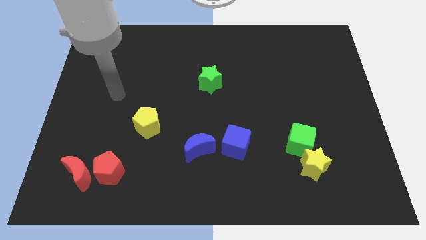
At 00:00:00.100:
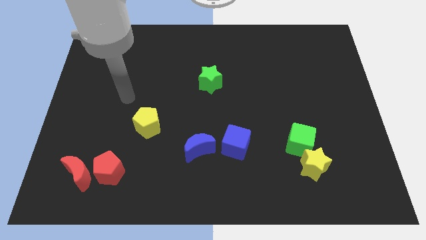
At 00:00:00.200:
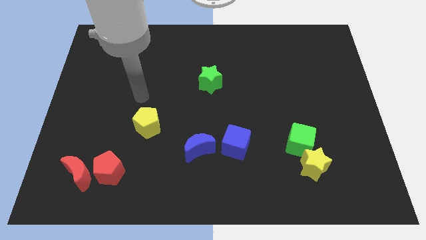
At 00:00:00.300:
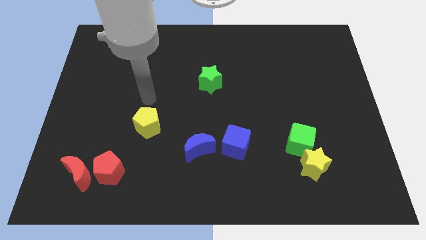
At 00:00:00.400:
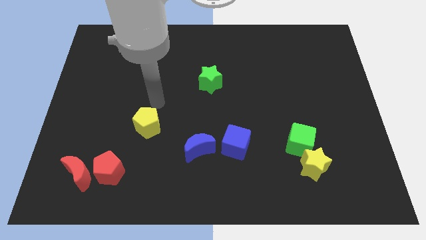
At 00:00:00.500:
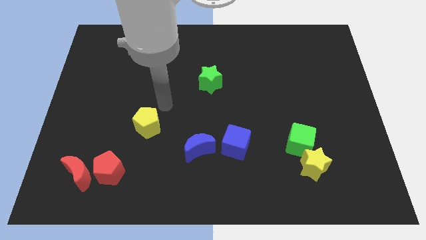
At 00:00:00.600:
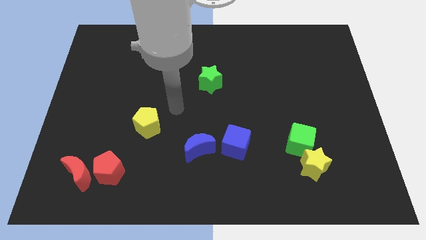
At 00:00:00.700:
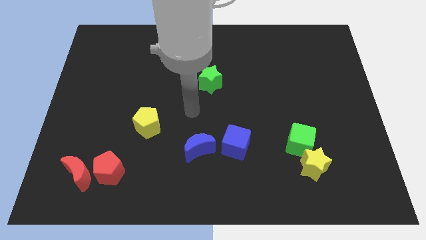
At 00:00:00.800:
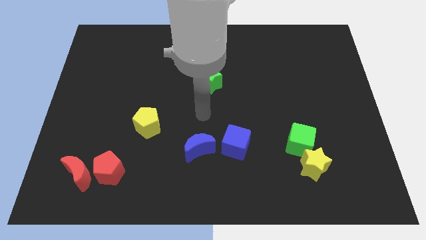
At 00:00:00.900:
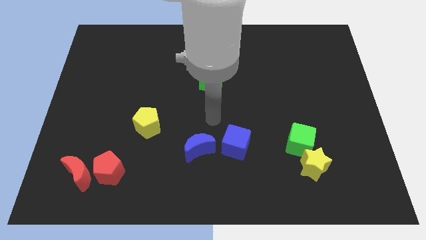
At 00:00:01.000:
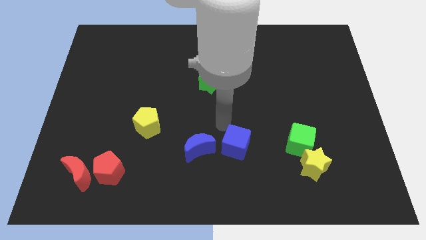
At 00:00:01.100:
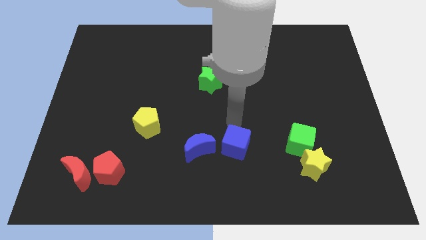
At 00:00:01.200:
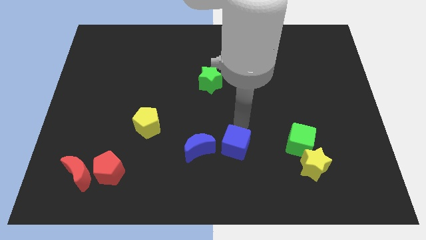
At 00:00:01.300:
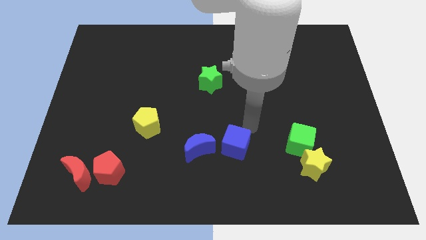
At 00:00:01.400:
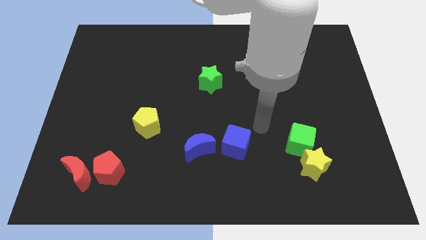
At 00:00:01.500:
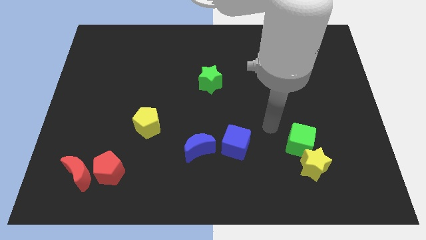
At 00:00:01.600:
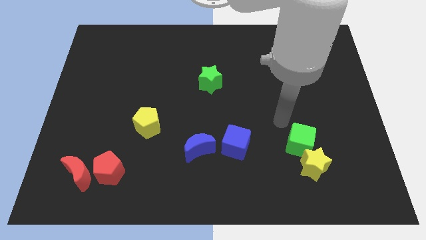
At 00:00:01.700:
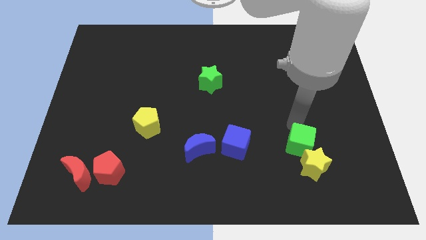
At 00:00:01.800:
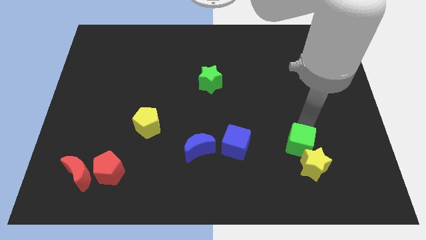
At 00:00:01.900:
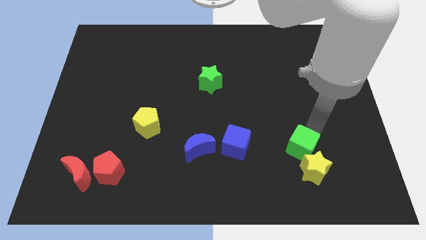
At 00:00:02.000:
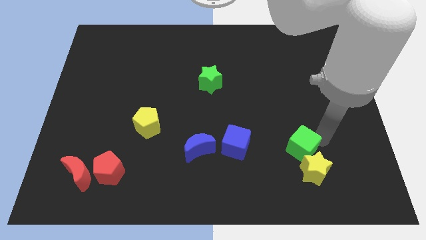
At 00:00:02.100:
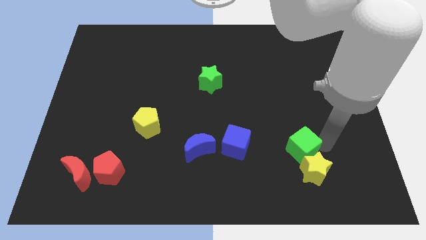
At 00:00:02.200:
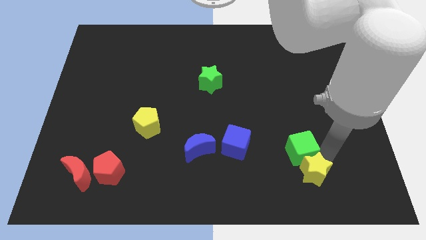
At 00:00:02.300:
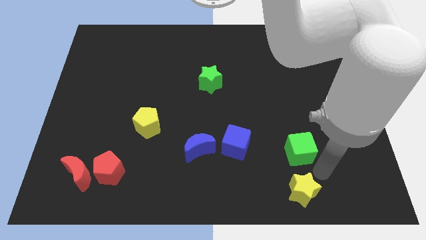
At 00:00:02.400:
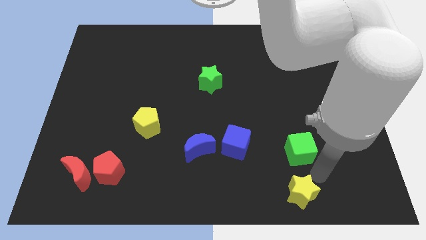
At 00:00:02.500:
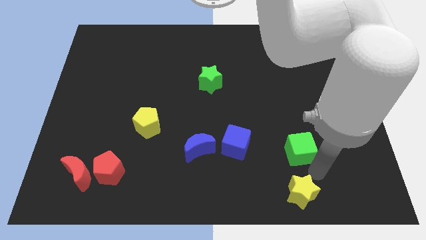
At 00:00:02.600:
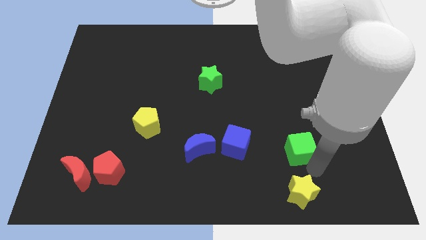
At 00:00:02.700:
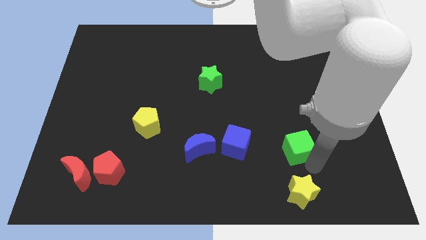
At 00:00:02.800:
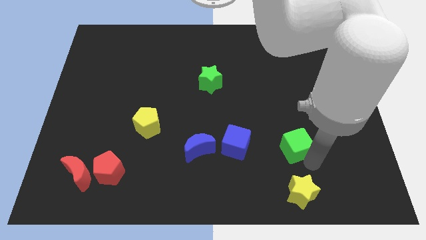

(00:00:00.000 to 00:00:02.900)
pull the green cube apart from the yellow star

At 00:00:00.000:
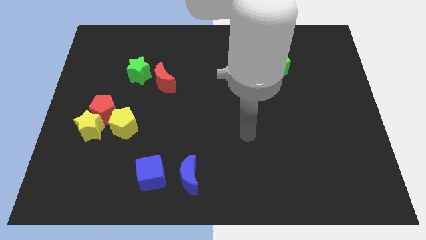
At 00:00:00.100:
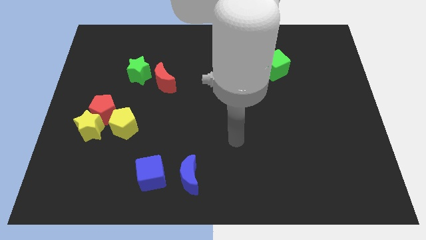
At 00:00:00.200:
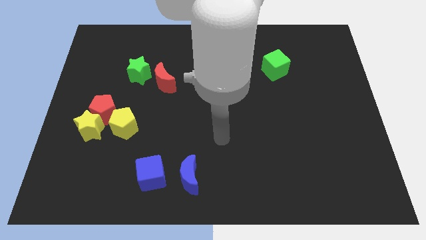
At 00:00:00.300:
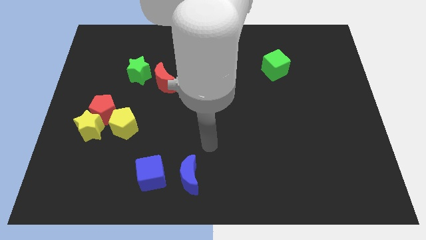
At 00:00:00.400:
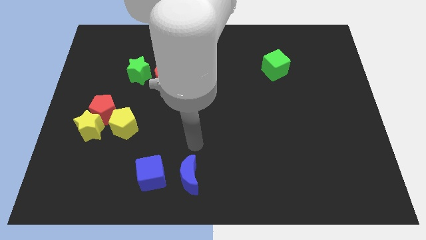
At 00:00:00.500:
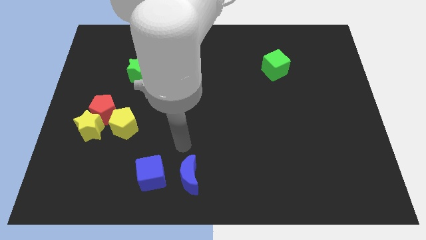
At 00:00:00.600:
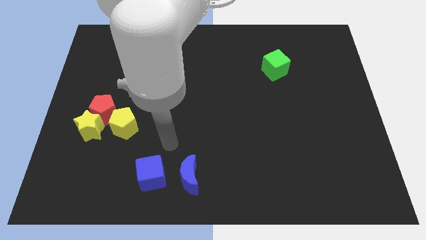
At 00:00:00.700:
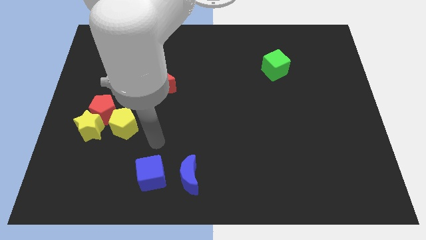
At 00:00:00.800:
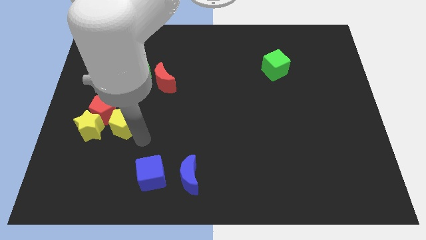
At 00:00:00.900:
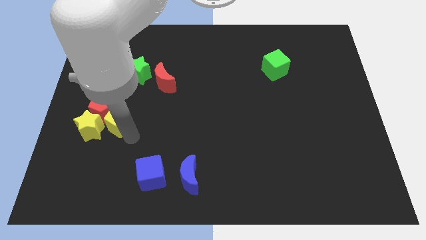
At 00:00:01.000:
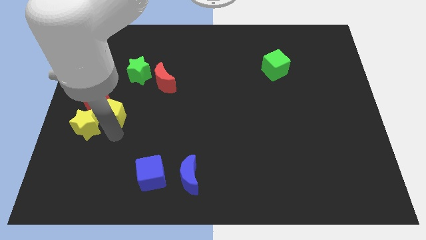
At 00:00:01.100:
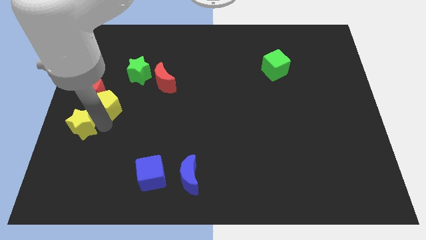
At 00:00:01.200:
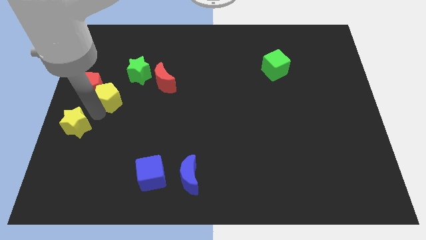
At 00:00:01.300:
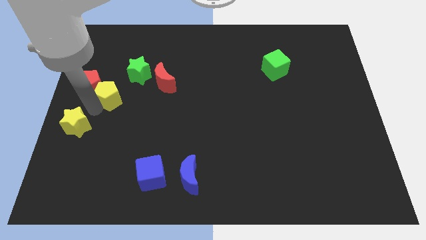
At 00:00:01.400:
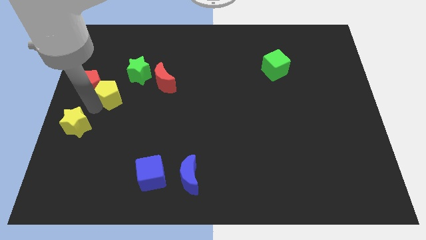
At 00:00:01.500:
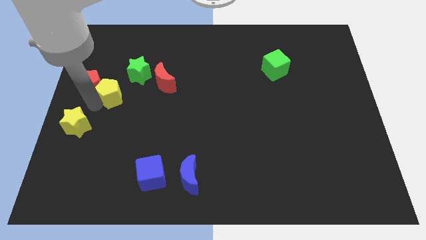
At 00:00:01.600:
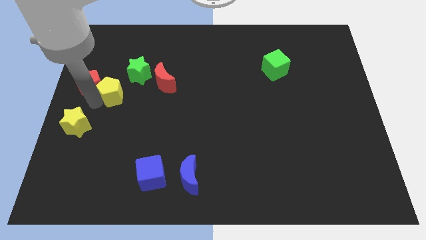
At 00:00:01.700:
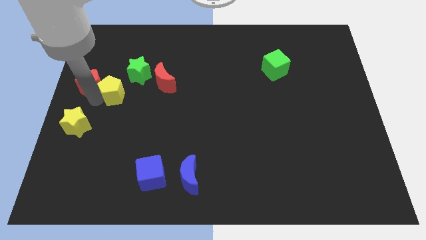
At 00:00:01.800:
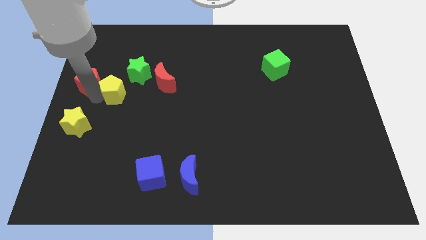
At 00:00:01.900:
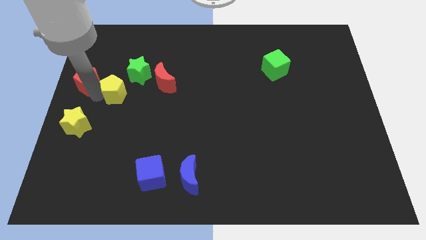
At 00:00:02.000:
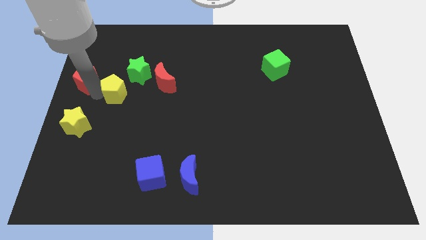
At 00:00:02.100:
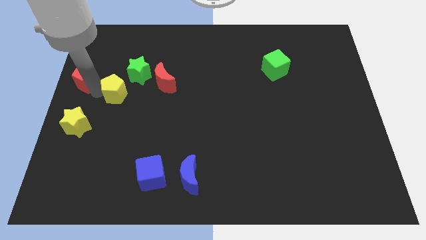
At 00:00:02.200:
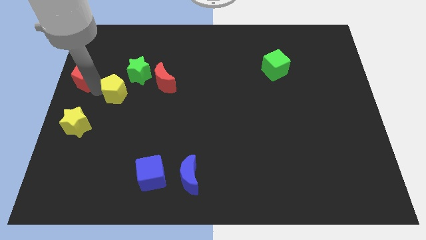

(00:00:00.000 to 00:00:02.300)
separate the red pentagon from the yellow star and yellow pentagon

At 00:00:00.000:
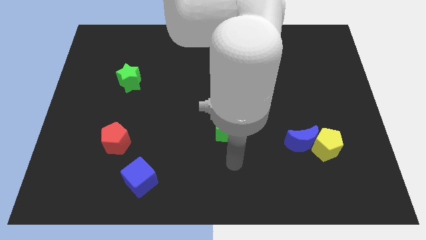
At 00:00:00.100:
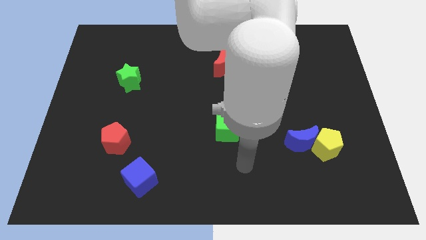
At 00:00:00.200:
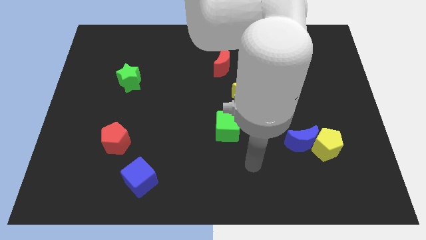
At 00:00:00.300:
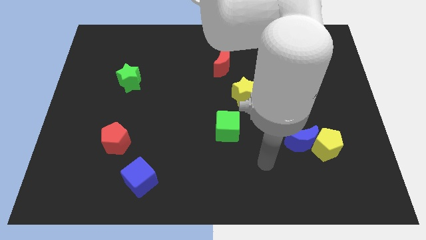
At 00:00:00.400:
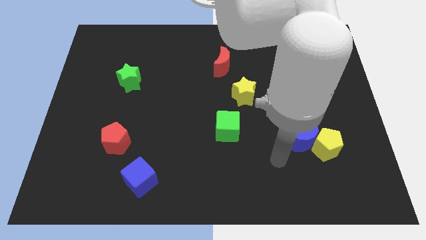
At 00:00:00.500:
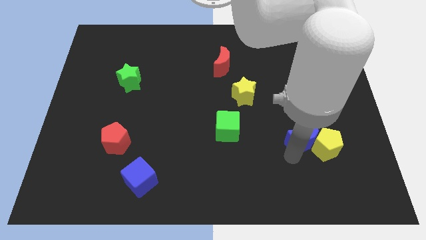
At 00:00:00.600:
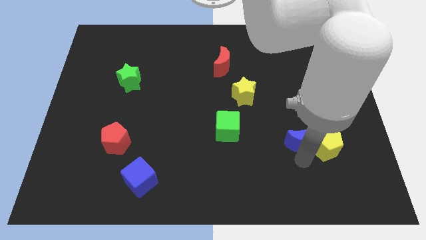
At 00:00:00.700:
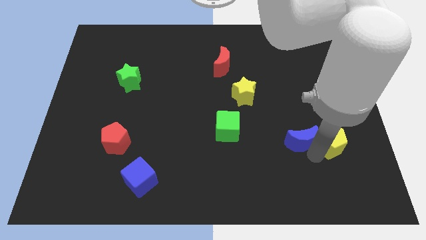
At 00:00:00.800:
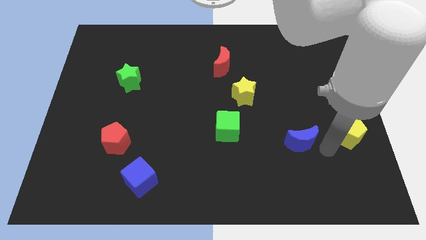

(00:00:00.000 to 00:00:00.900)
pull the blue moon apart from the yellow pentagon

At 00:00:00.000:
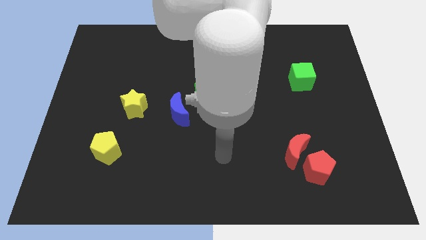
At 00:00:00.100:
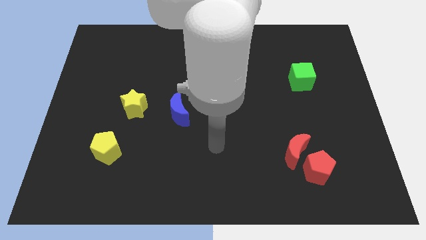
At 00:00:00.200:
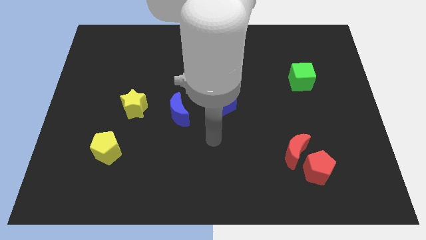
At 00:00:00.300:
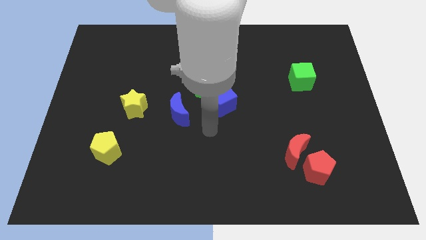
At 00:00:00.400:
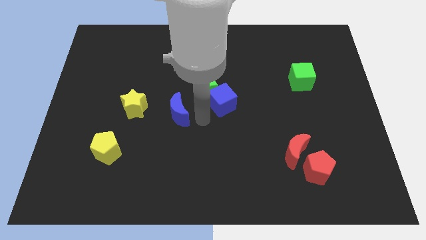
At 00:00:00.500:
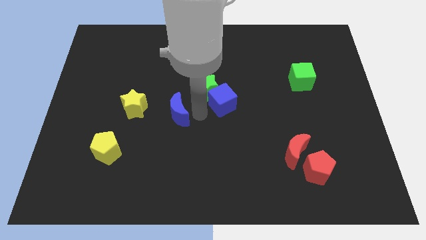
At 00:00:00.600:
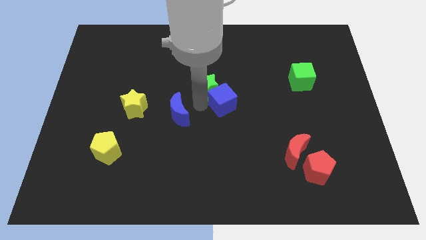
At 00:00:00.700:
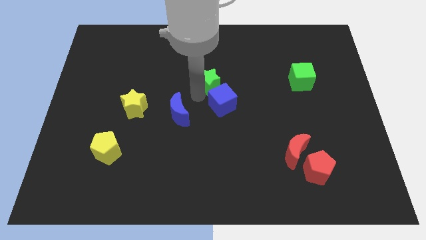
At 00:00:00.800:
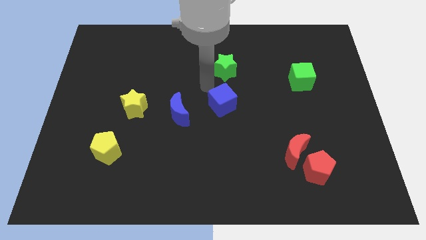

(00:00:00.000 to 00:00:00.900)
separate the blue cube from the green star

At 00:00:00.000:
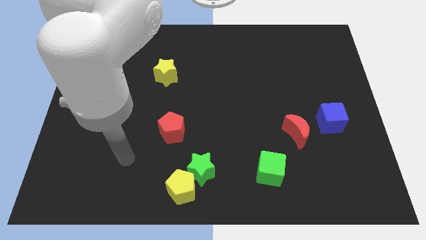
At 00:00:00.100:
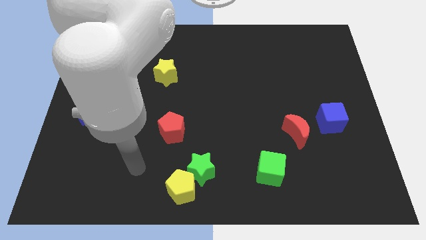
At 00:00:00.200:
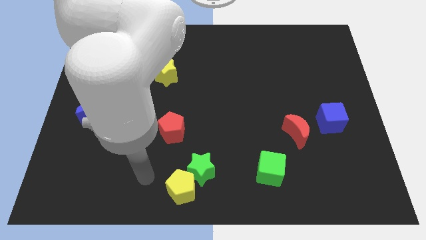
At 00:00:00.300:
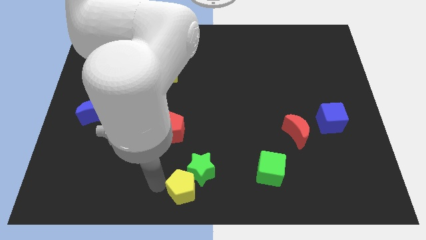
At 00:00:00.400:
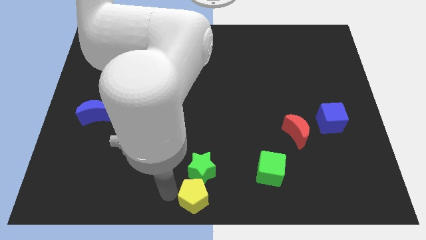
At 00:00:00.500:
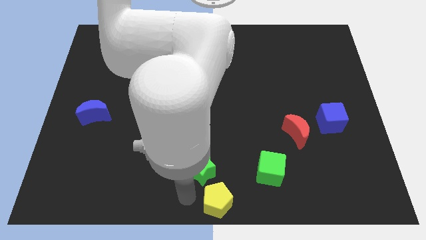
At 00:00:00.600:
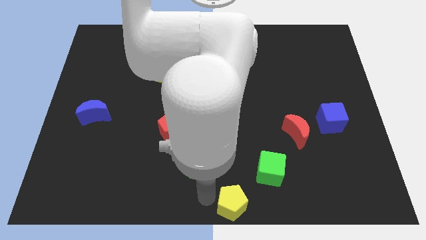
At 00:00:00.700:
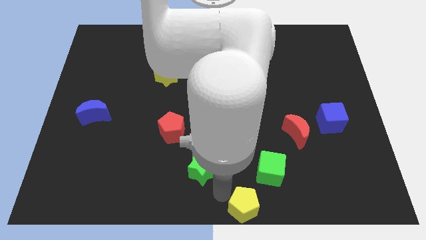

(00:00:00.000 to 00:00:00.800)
move the green star away from the yellow pentagon

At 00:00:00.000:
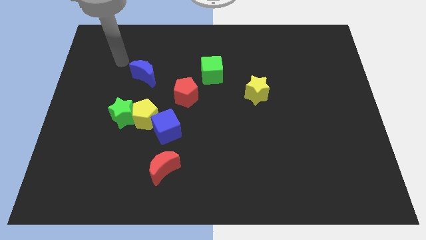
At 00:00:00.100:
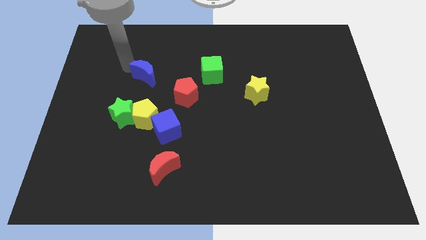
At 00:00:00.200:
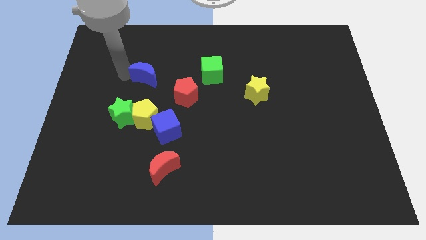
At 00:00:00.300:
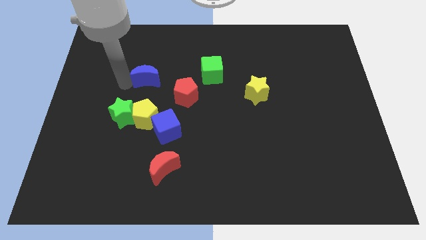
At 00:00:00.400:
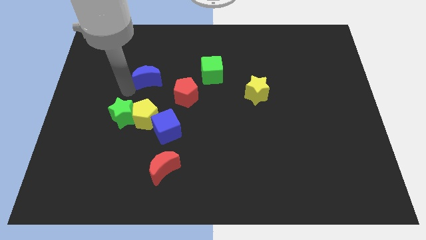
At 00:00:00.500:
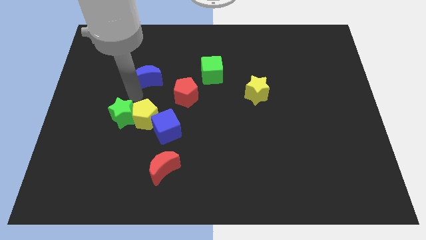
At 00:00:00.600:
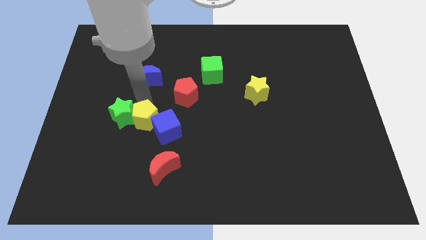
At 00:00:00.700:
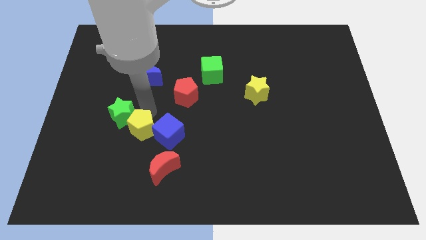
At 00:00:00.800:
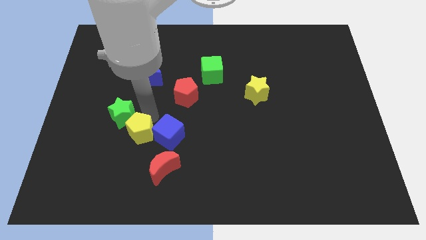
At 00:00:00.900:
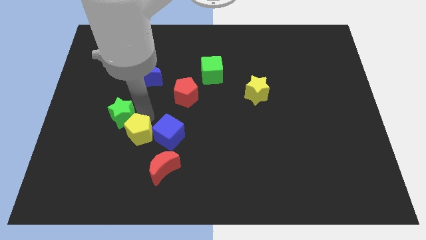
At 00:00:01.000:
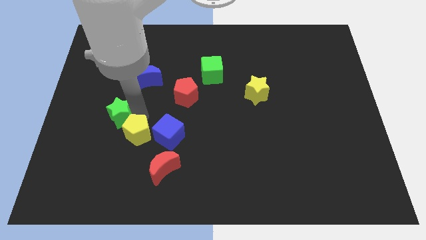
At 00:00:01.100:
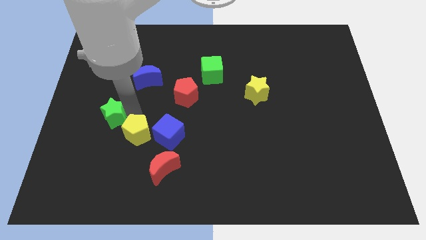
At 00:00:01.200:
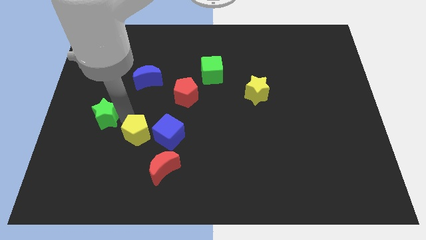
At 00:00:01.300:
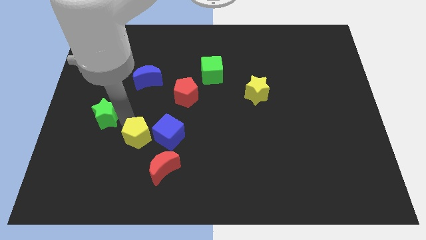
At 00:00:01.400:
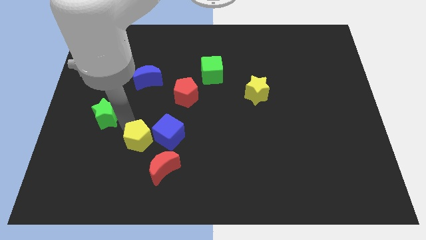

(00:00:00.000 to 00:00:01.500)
separate the green star from the yellow pentagon
